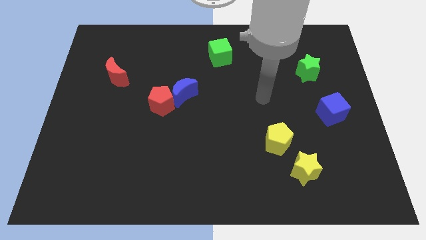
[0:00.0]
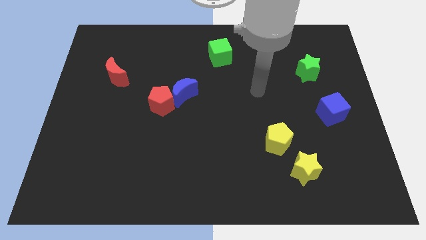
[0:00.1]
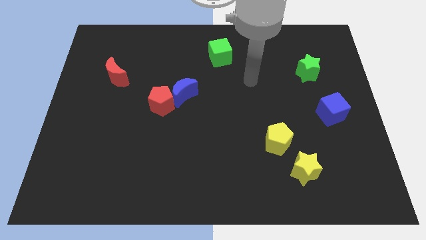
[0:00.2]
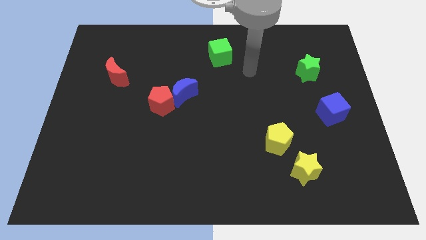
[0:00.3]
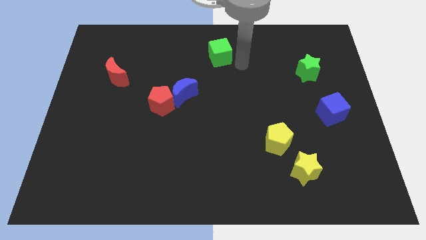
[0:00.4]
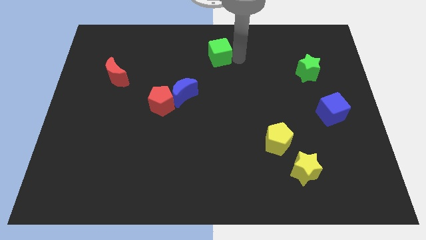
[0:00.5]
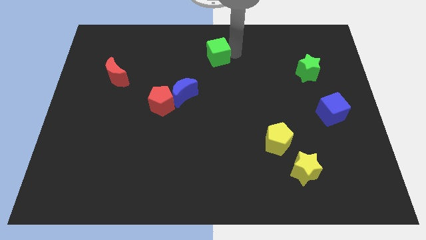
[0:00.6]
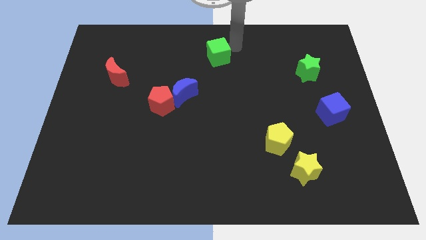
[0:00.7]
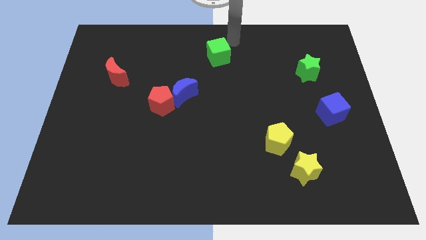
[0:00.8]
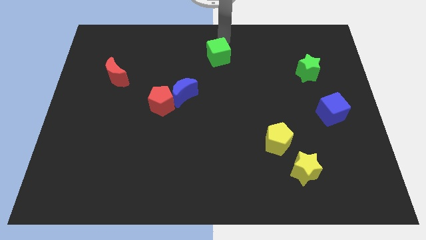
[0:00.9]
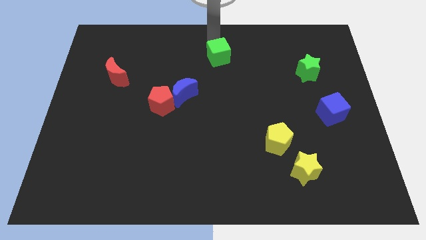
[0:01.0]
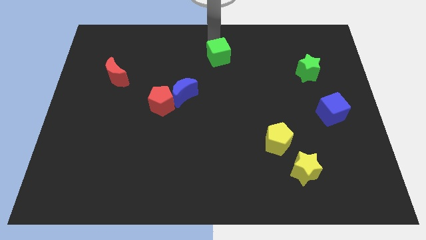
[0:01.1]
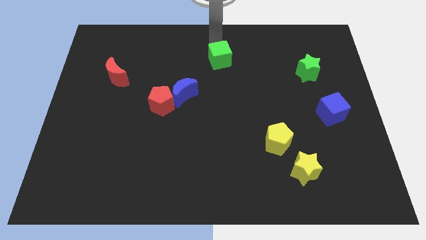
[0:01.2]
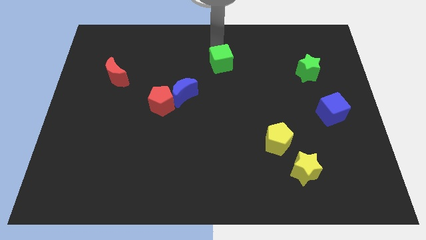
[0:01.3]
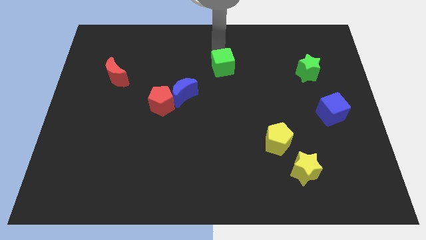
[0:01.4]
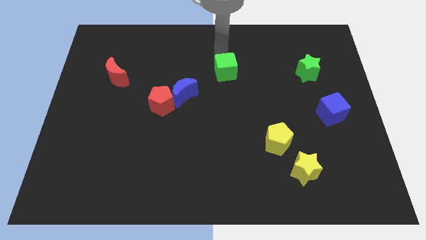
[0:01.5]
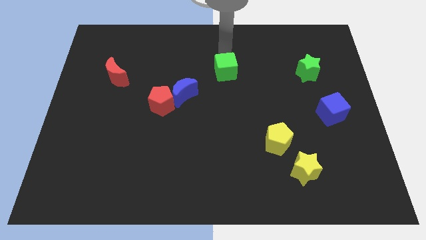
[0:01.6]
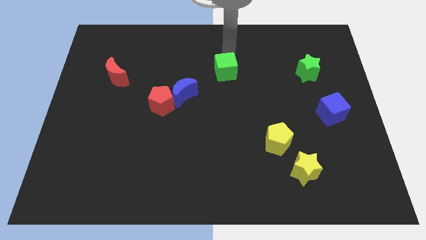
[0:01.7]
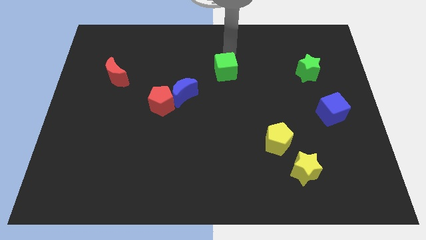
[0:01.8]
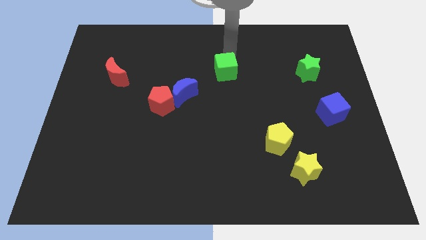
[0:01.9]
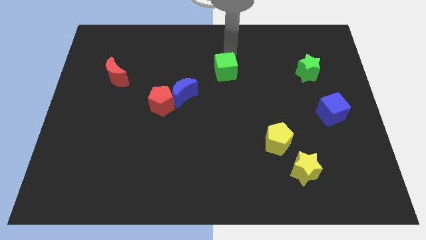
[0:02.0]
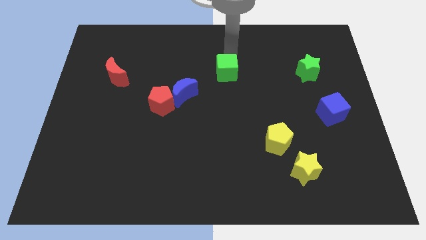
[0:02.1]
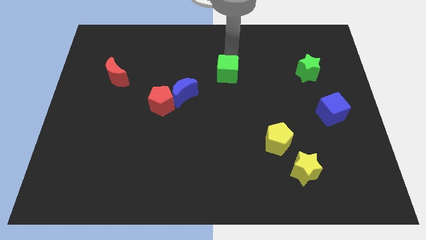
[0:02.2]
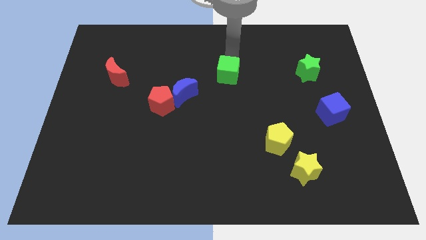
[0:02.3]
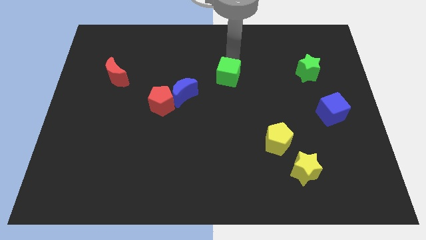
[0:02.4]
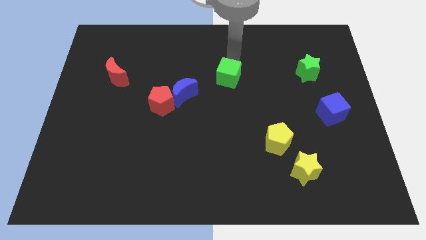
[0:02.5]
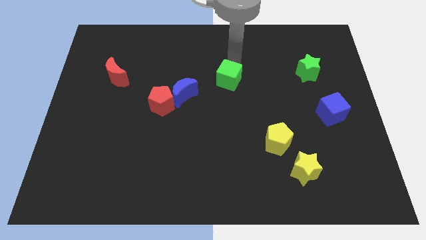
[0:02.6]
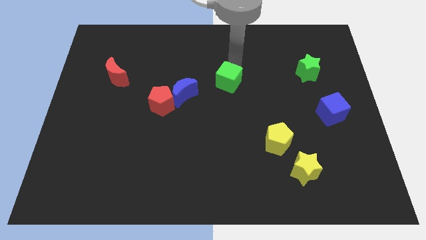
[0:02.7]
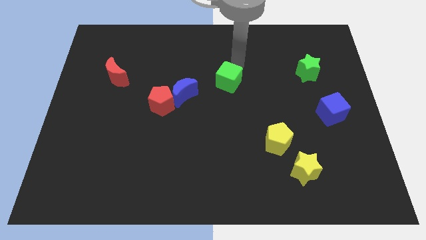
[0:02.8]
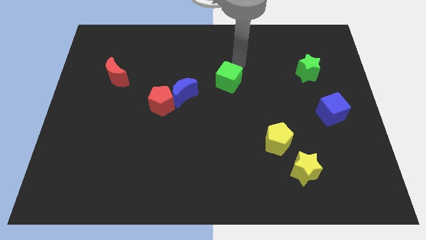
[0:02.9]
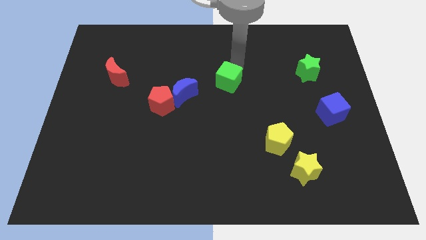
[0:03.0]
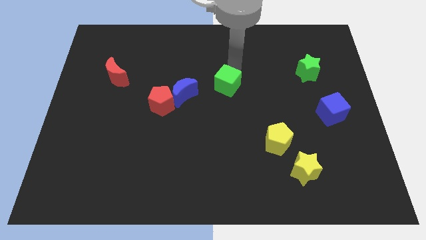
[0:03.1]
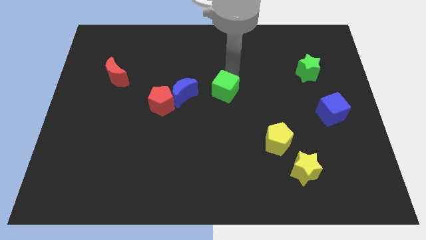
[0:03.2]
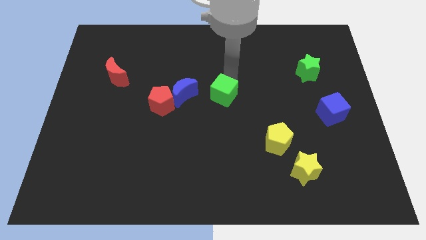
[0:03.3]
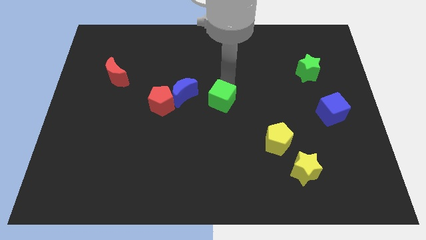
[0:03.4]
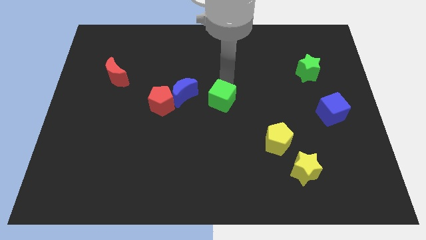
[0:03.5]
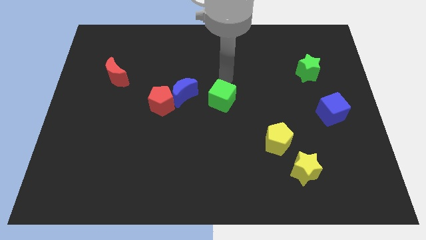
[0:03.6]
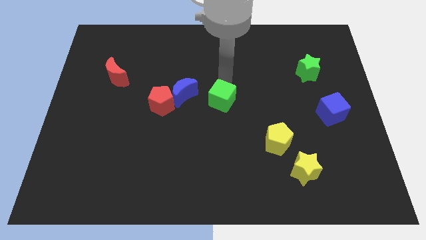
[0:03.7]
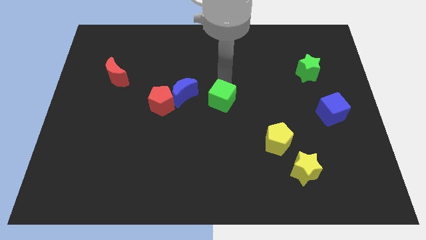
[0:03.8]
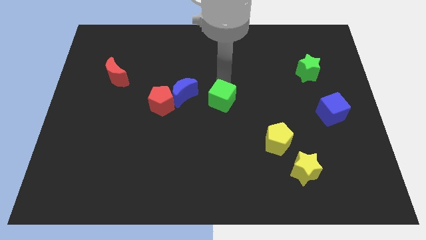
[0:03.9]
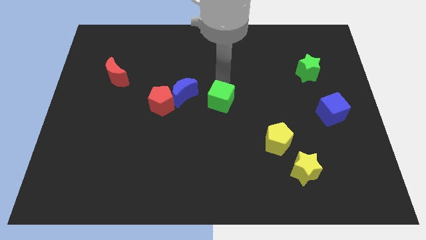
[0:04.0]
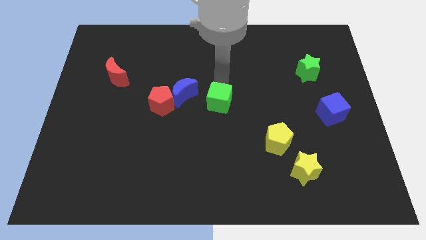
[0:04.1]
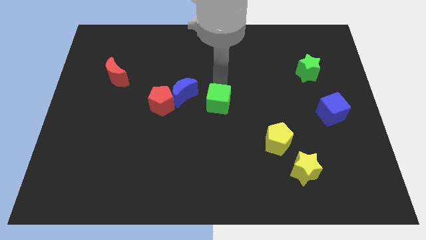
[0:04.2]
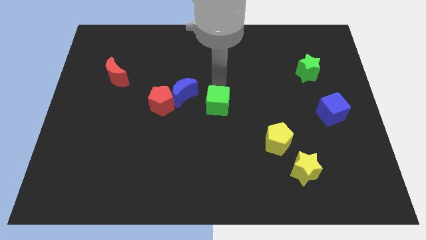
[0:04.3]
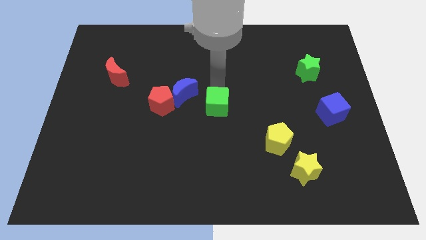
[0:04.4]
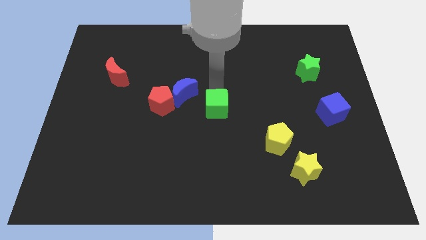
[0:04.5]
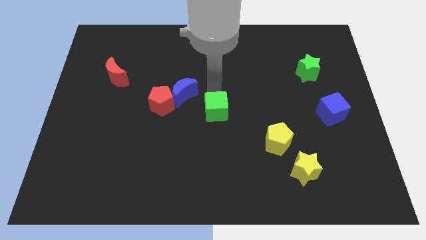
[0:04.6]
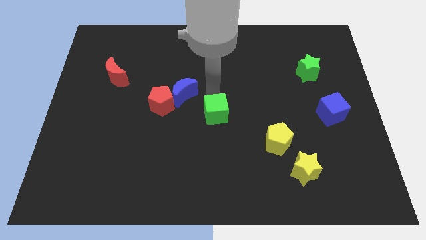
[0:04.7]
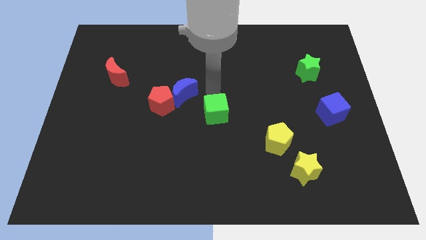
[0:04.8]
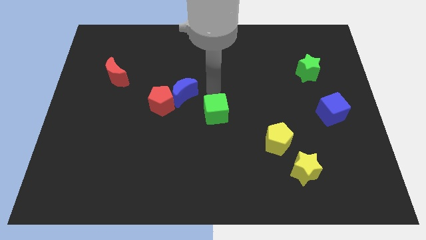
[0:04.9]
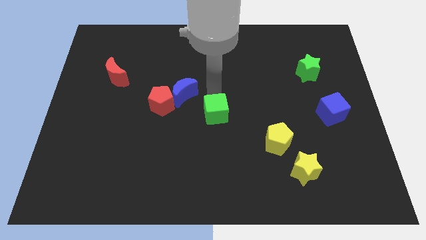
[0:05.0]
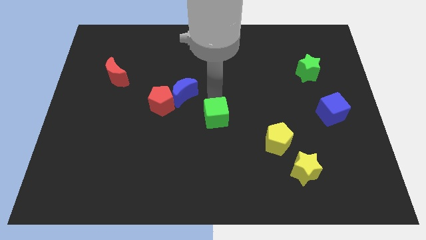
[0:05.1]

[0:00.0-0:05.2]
slide the green cube downwards

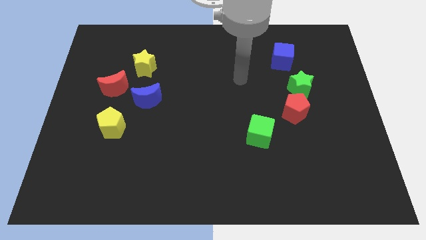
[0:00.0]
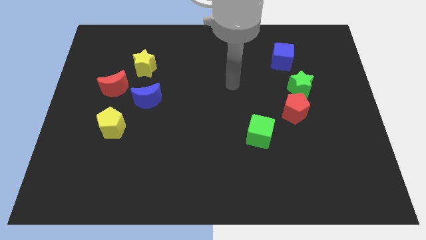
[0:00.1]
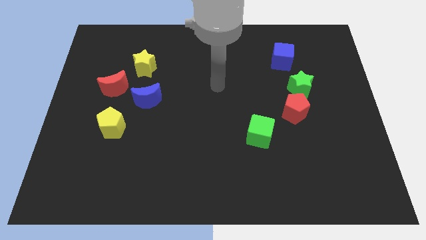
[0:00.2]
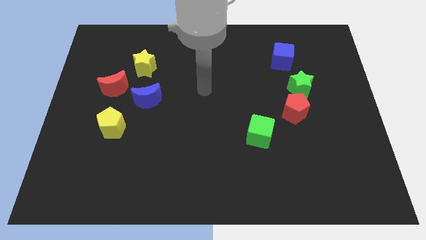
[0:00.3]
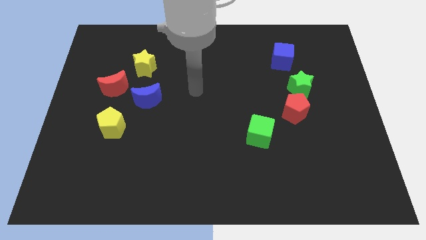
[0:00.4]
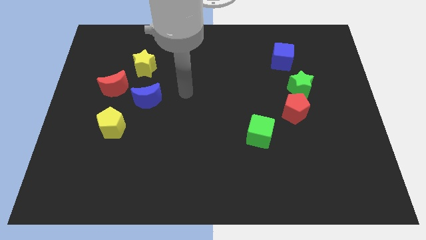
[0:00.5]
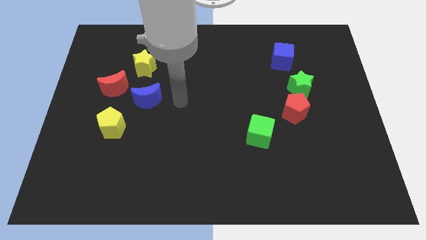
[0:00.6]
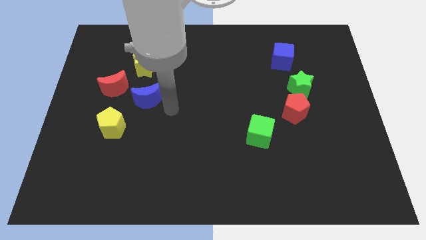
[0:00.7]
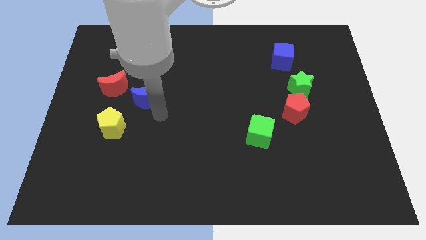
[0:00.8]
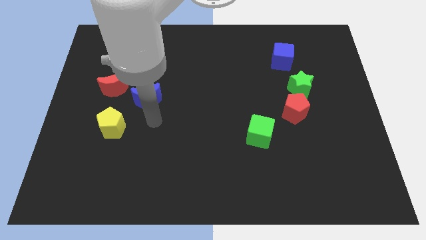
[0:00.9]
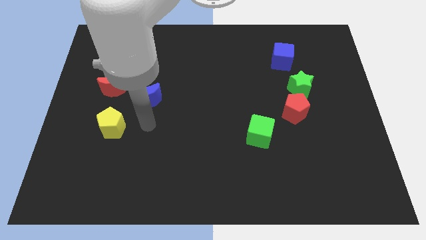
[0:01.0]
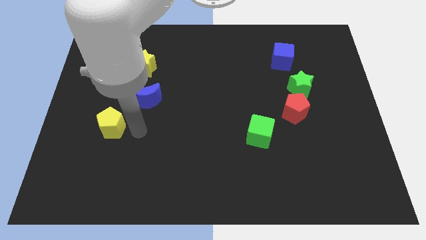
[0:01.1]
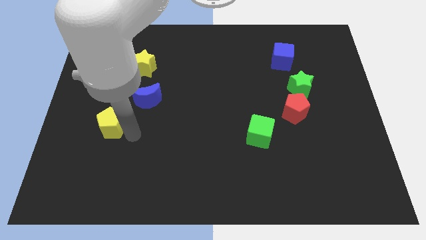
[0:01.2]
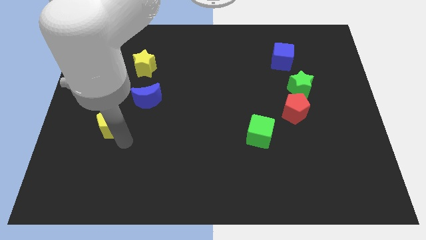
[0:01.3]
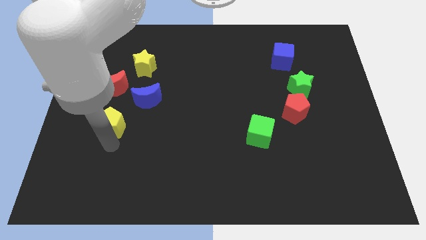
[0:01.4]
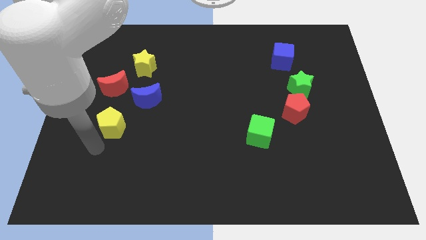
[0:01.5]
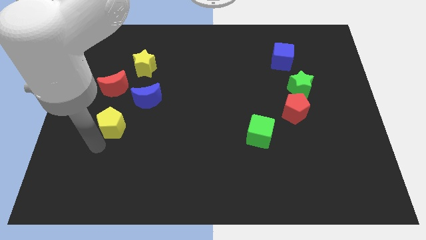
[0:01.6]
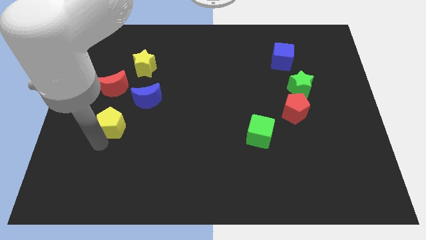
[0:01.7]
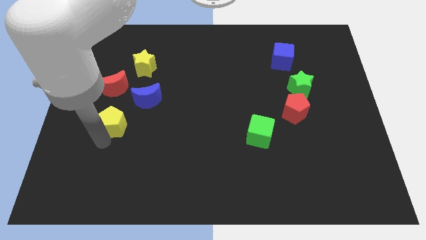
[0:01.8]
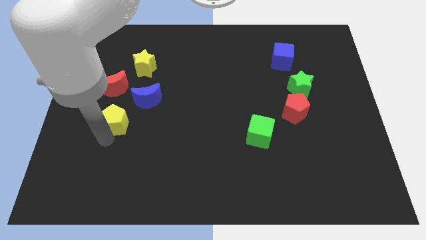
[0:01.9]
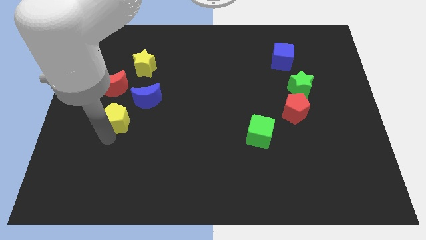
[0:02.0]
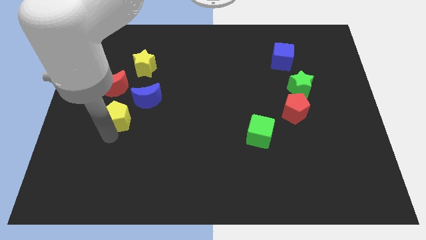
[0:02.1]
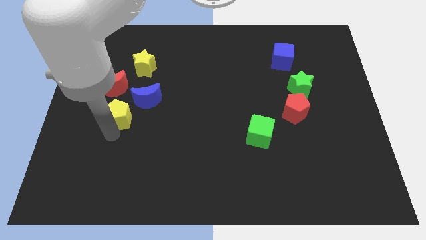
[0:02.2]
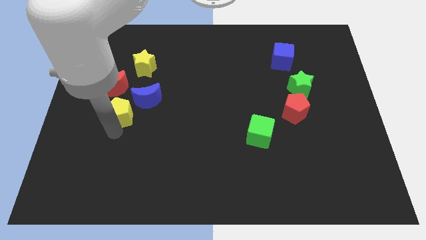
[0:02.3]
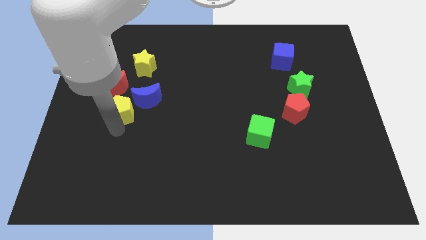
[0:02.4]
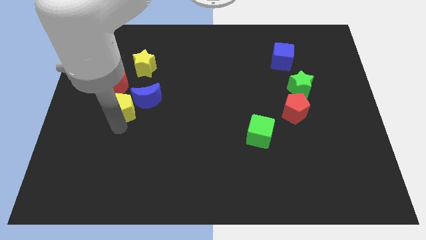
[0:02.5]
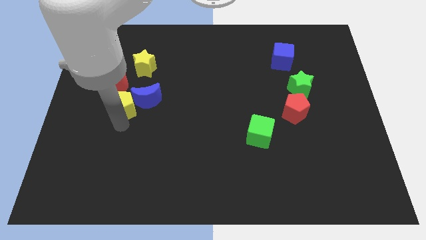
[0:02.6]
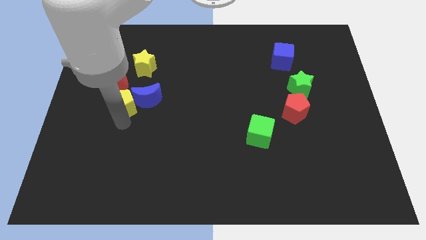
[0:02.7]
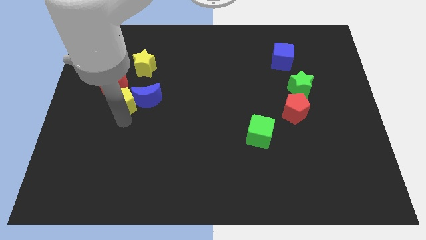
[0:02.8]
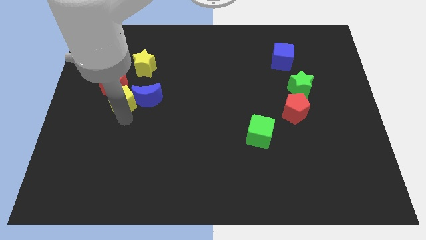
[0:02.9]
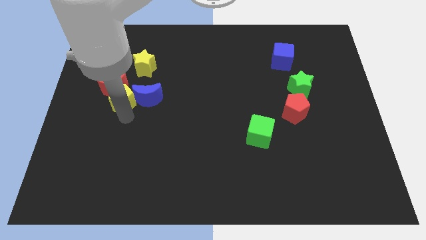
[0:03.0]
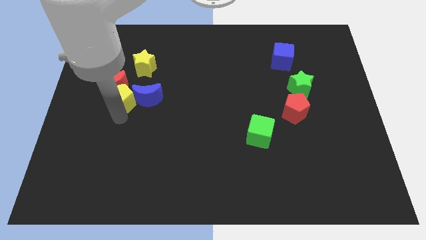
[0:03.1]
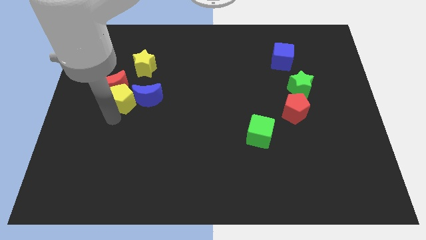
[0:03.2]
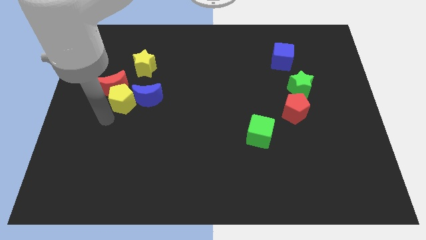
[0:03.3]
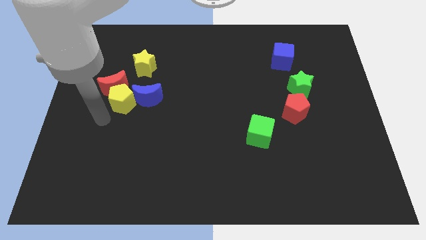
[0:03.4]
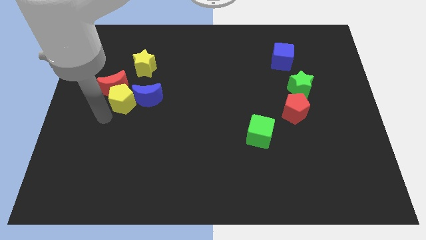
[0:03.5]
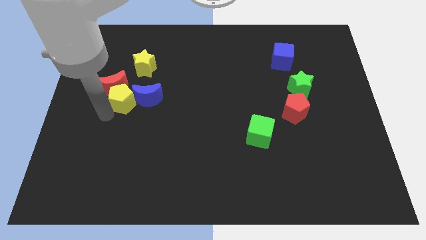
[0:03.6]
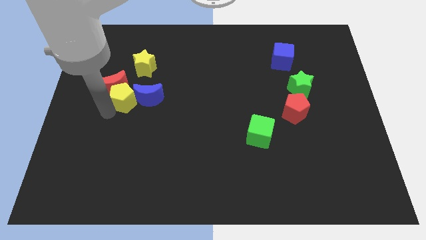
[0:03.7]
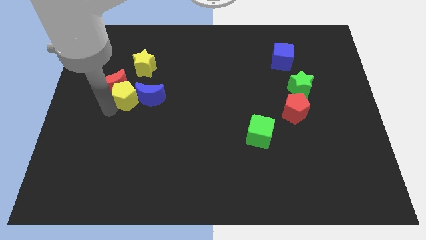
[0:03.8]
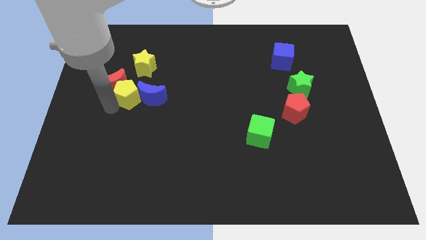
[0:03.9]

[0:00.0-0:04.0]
slightly move the yellow pentagon diagonally up and right
